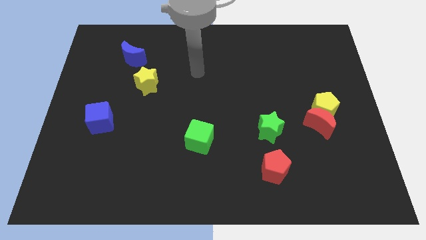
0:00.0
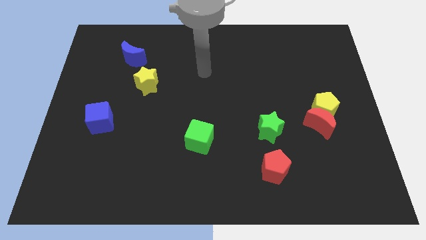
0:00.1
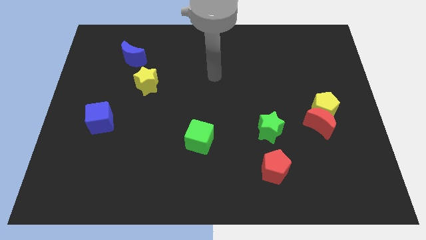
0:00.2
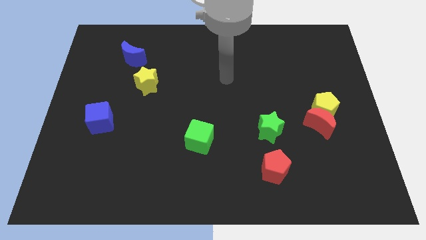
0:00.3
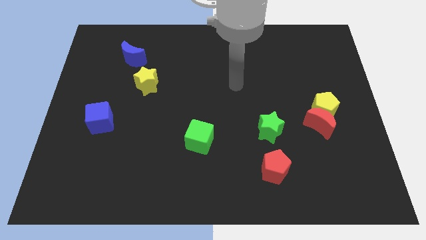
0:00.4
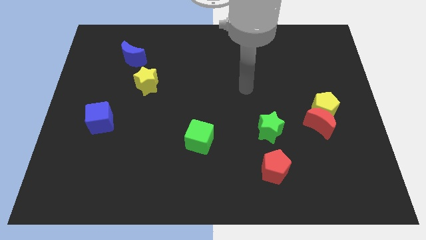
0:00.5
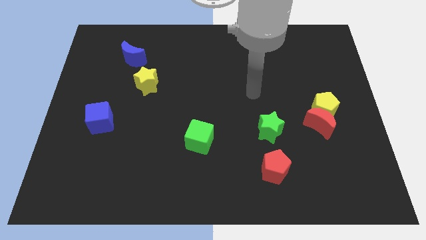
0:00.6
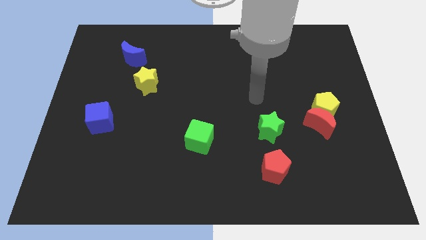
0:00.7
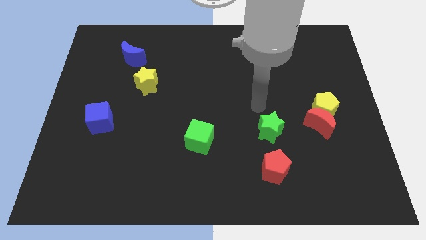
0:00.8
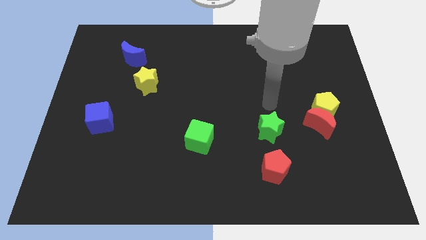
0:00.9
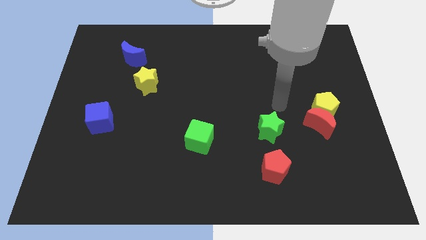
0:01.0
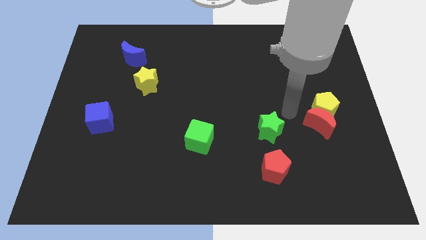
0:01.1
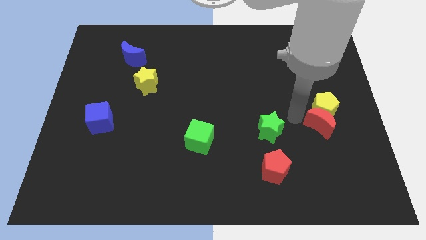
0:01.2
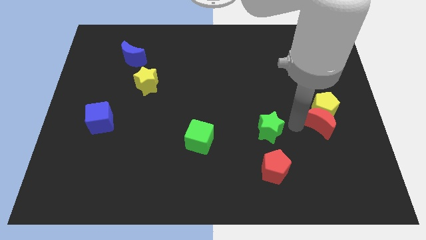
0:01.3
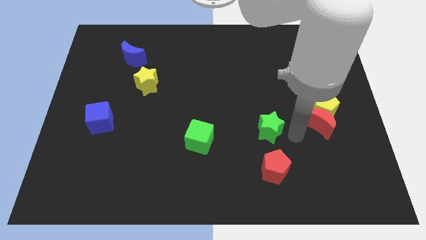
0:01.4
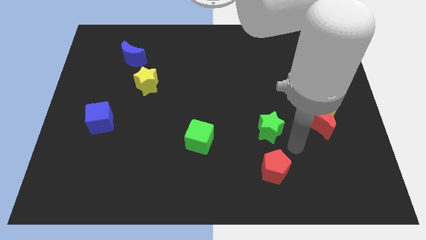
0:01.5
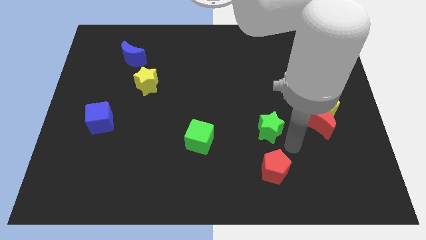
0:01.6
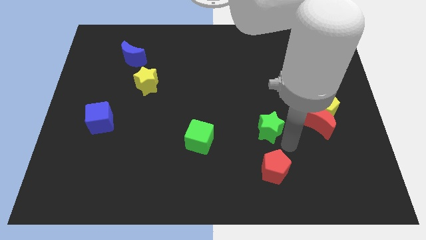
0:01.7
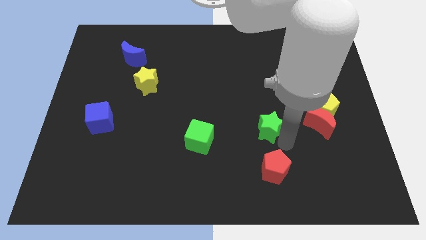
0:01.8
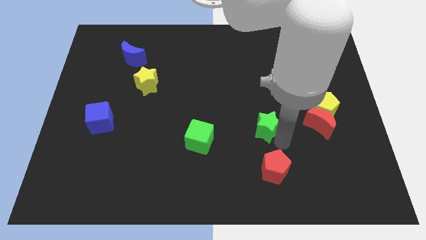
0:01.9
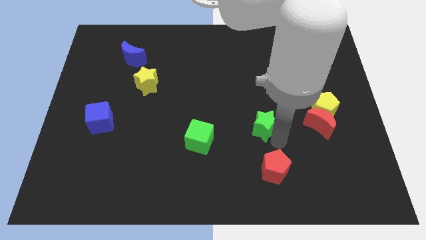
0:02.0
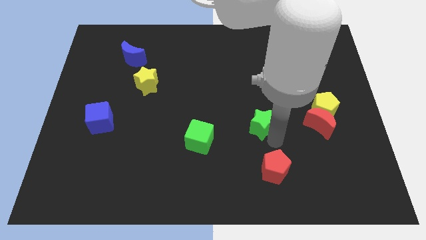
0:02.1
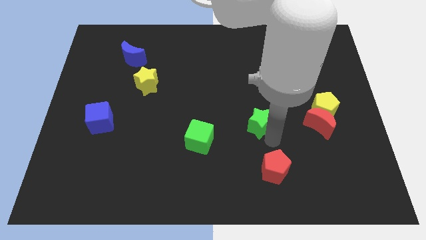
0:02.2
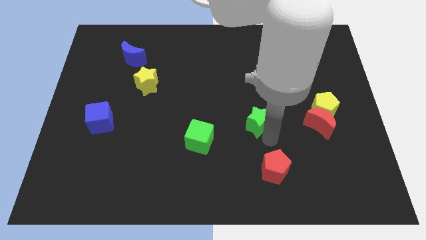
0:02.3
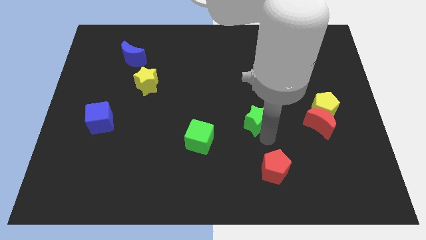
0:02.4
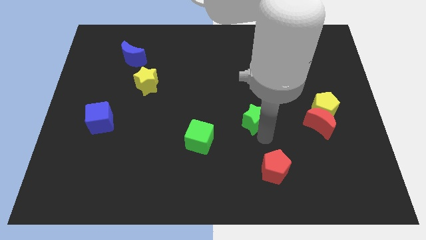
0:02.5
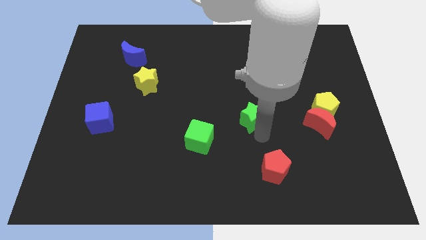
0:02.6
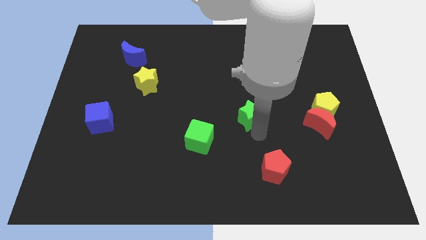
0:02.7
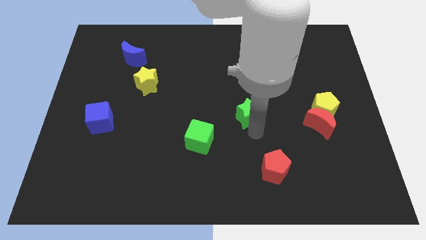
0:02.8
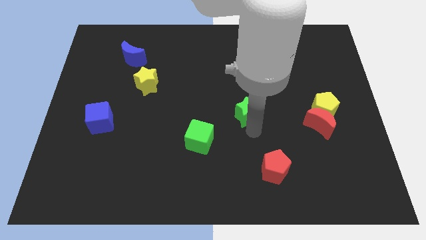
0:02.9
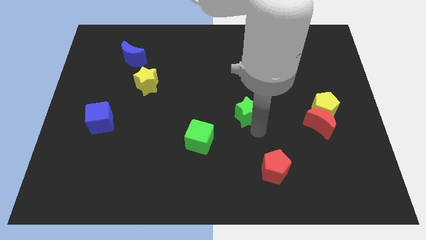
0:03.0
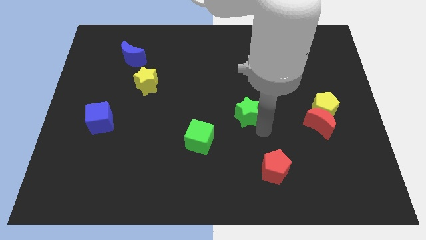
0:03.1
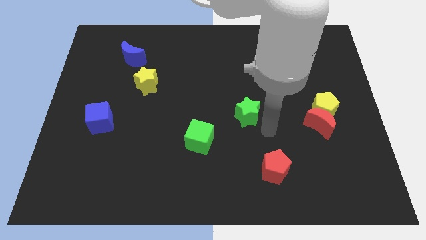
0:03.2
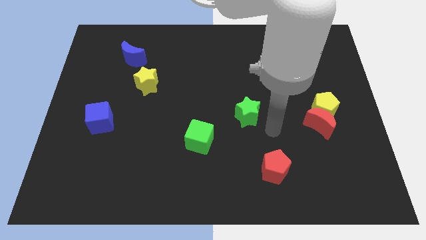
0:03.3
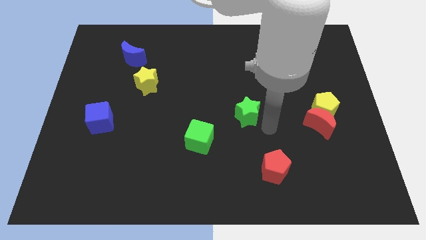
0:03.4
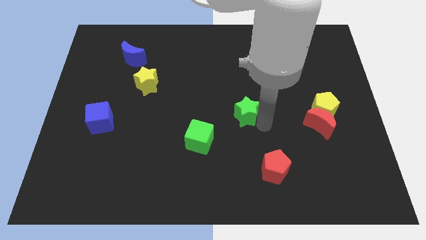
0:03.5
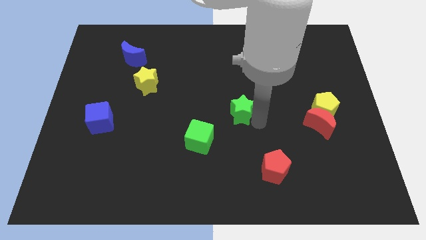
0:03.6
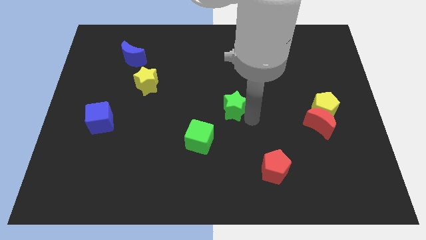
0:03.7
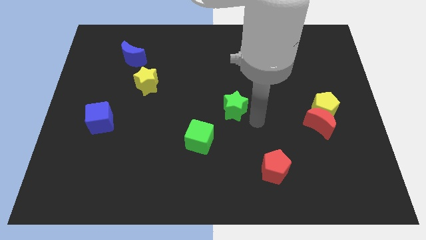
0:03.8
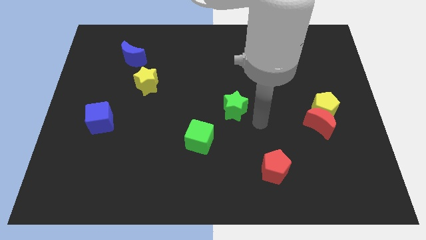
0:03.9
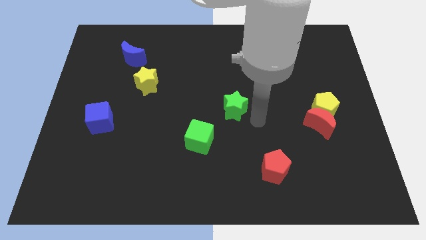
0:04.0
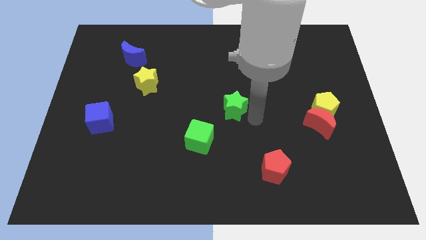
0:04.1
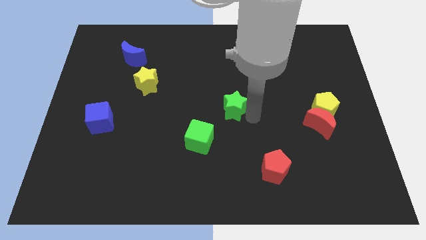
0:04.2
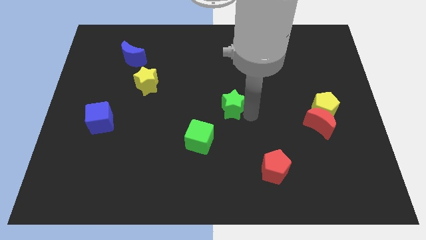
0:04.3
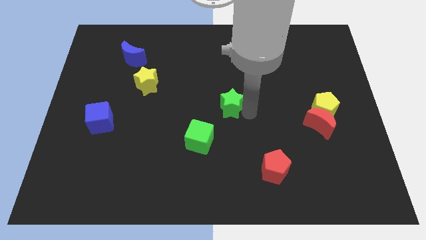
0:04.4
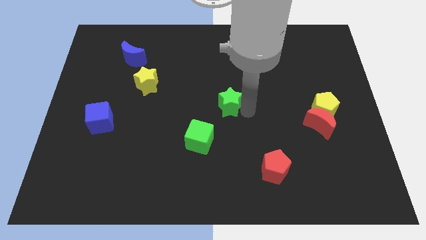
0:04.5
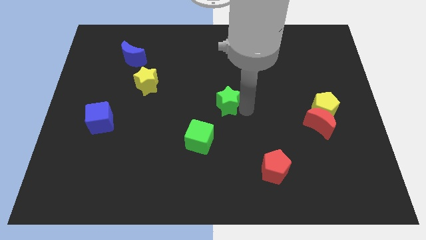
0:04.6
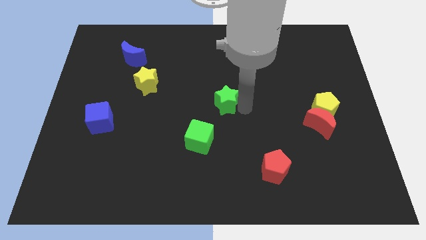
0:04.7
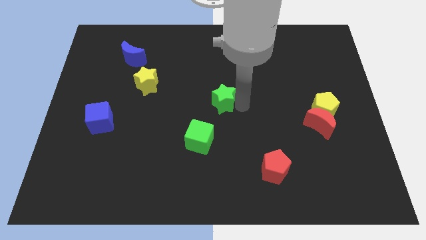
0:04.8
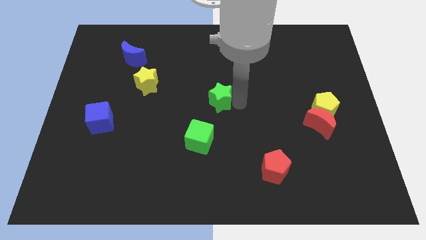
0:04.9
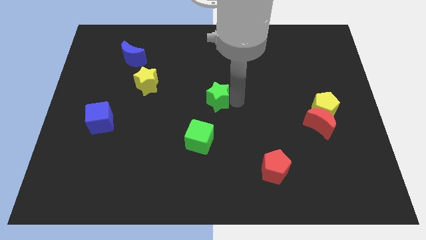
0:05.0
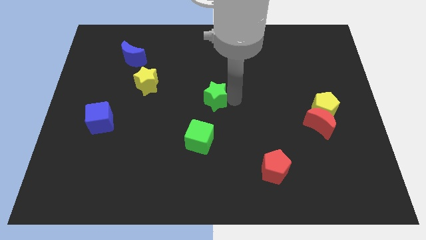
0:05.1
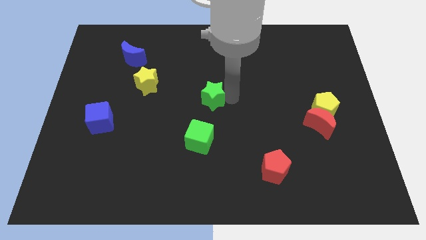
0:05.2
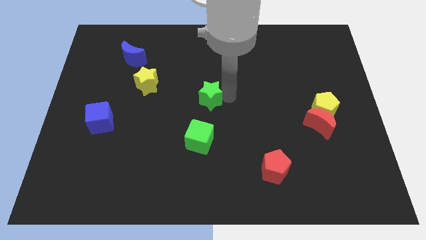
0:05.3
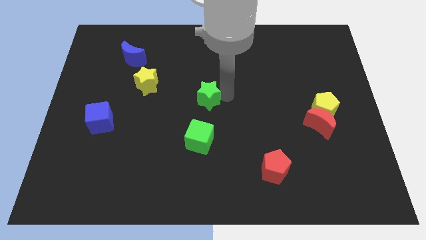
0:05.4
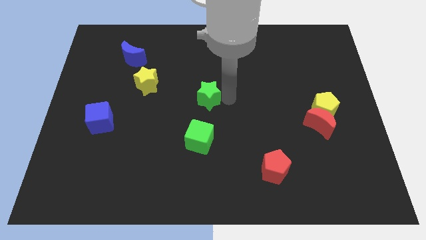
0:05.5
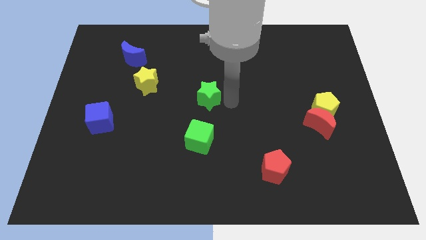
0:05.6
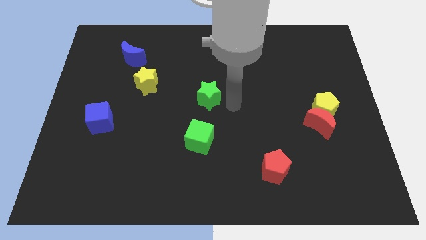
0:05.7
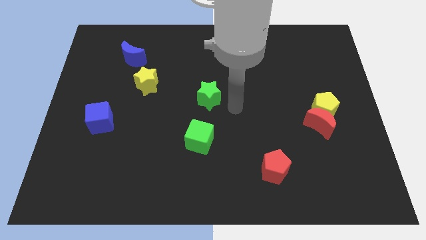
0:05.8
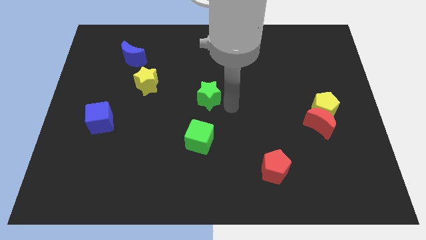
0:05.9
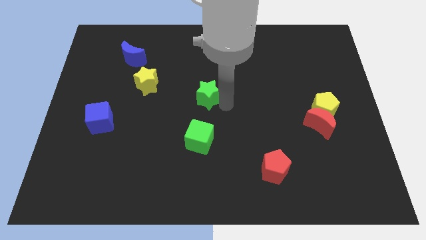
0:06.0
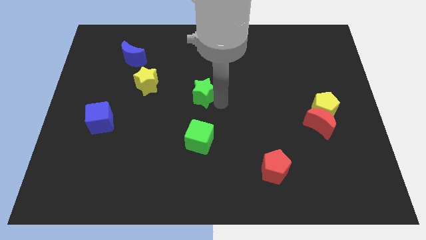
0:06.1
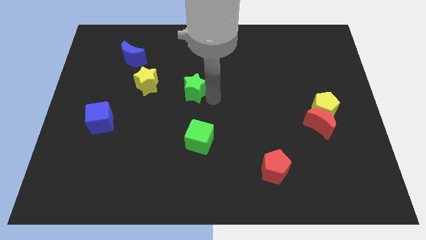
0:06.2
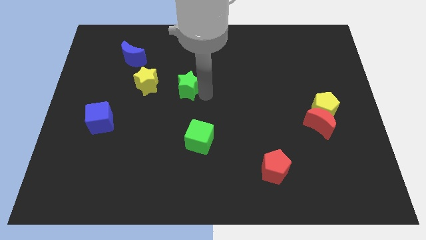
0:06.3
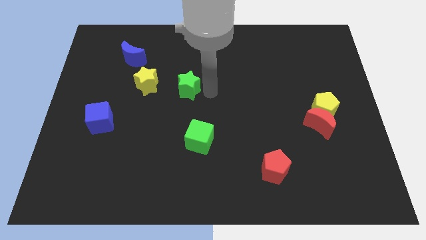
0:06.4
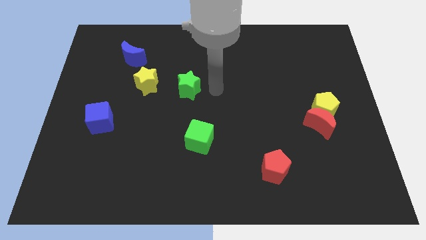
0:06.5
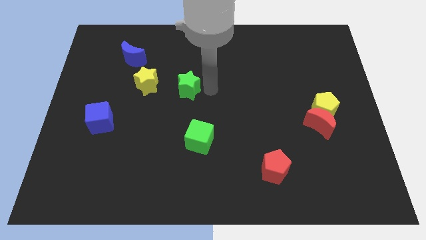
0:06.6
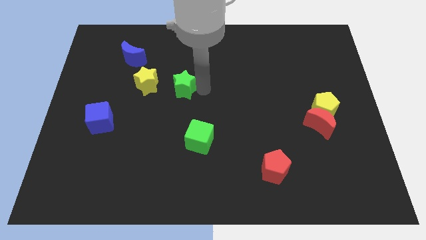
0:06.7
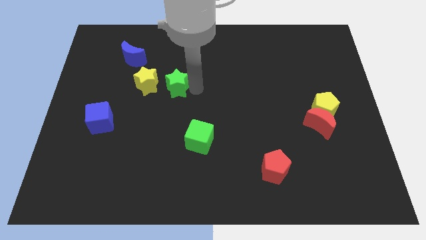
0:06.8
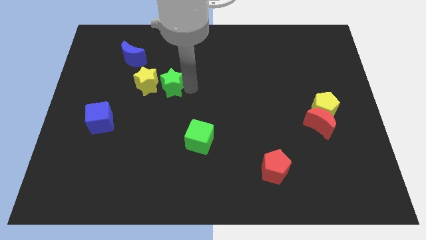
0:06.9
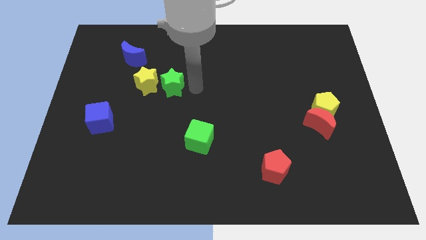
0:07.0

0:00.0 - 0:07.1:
slide the green star next to the yellow star
